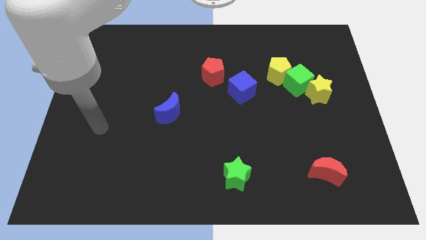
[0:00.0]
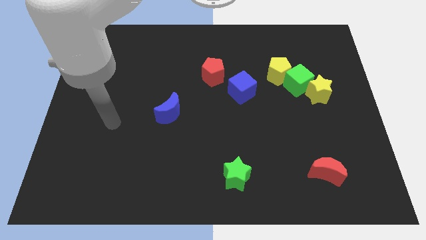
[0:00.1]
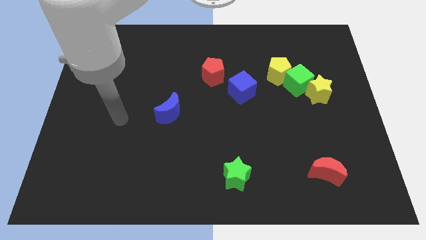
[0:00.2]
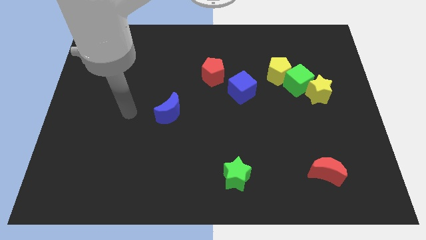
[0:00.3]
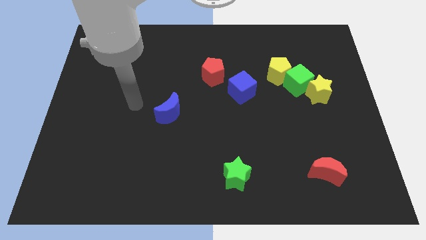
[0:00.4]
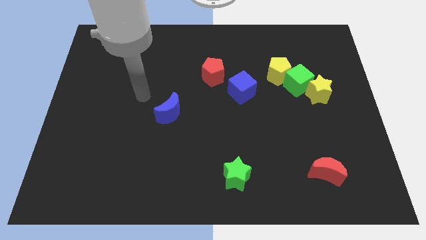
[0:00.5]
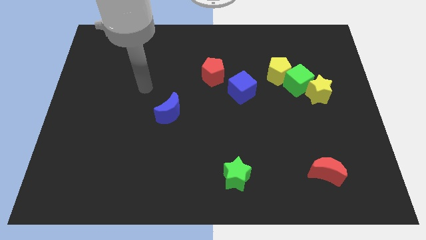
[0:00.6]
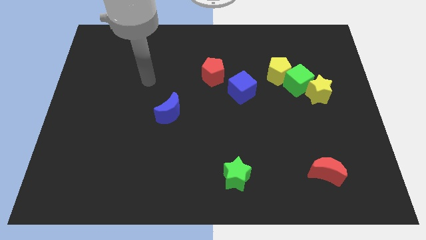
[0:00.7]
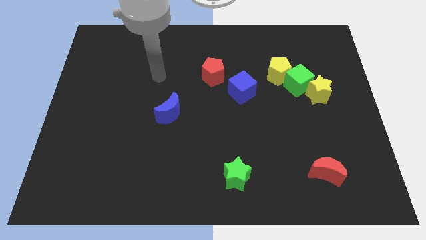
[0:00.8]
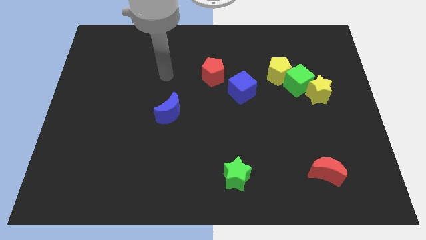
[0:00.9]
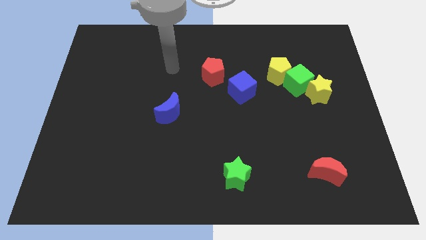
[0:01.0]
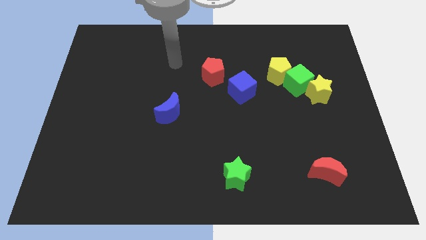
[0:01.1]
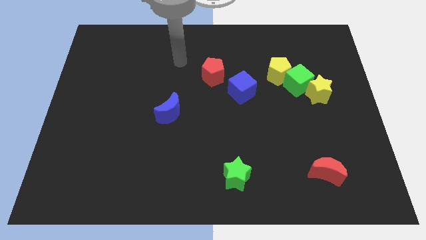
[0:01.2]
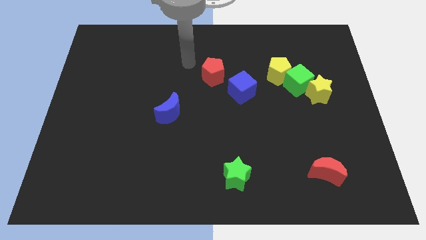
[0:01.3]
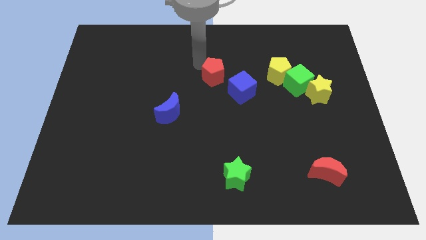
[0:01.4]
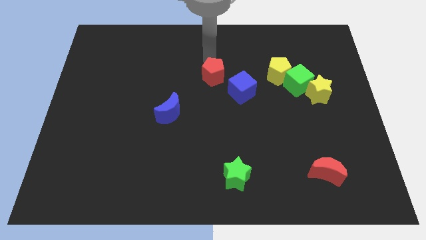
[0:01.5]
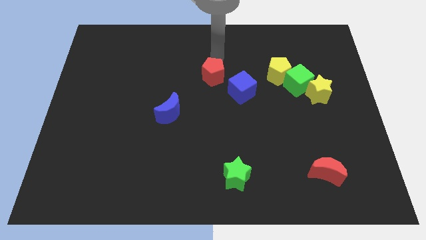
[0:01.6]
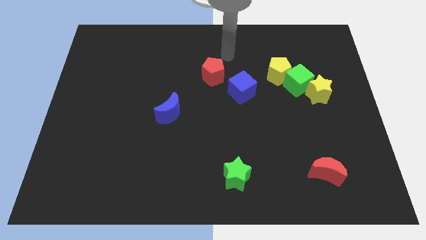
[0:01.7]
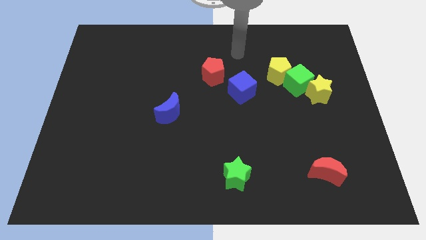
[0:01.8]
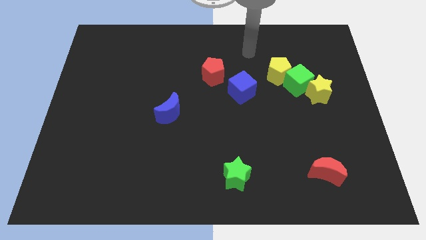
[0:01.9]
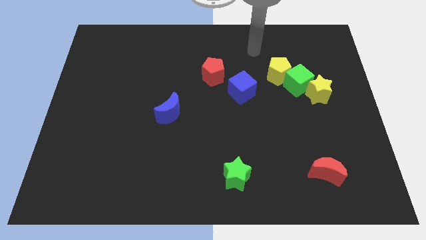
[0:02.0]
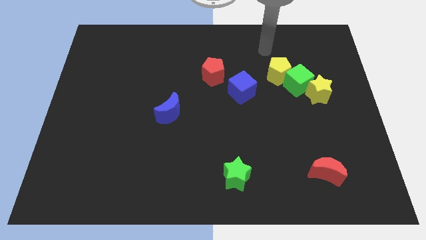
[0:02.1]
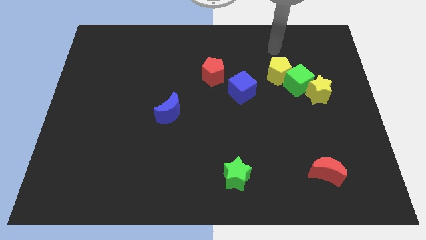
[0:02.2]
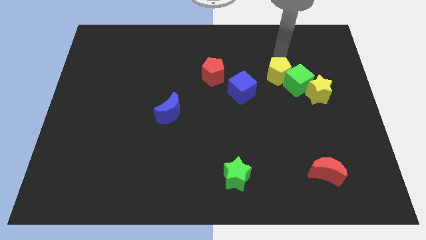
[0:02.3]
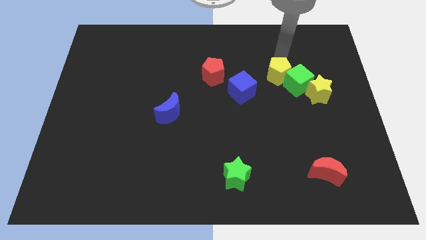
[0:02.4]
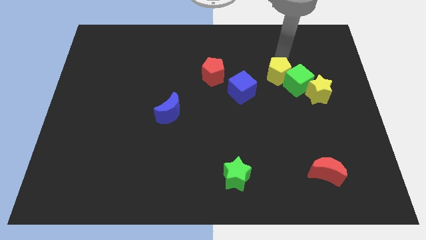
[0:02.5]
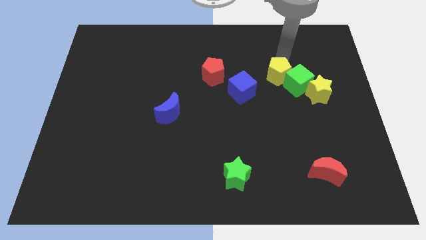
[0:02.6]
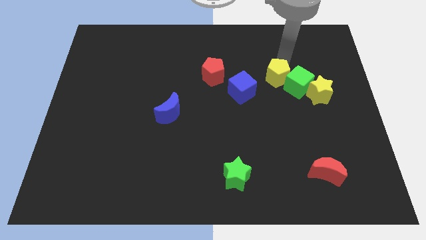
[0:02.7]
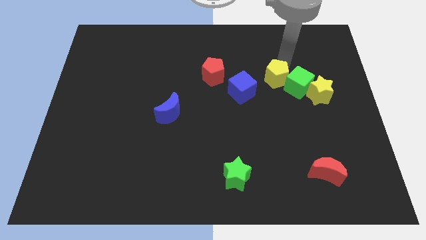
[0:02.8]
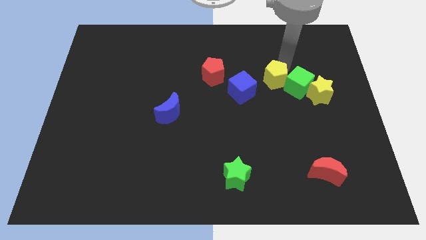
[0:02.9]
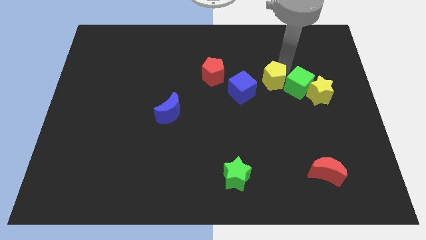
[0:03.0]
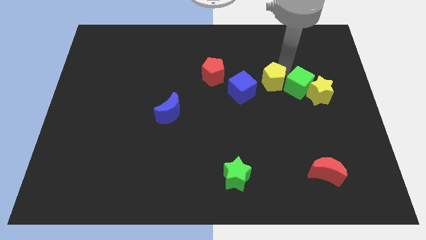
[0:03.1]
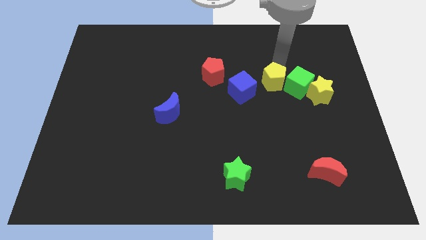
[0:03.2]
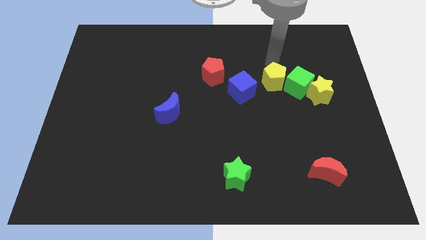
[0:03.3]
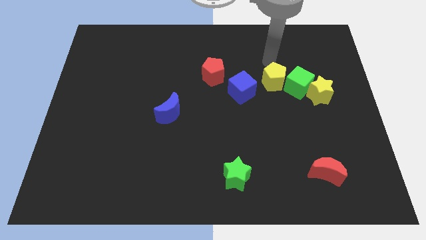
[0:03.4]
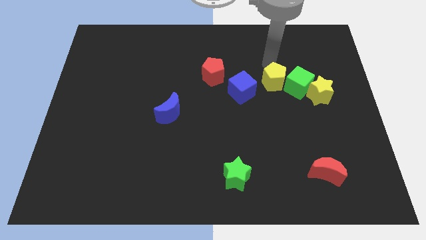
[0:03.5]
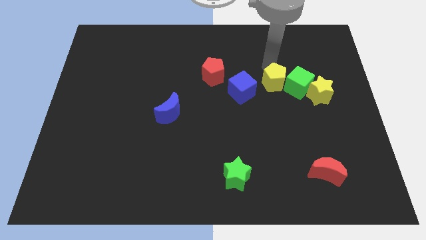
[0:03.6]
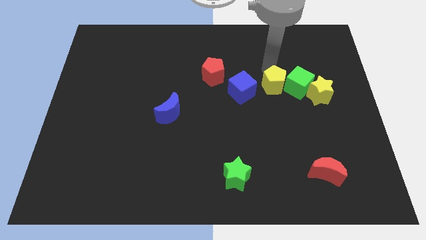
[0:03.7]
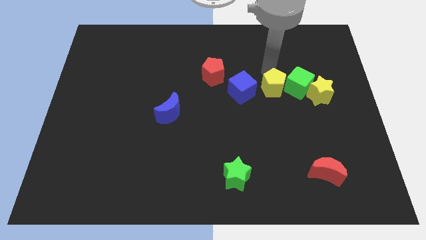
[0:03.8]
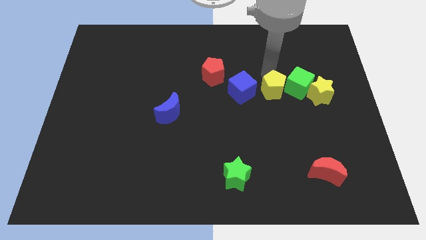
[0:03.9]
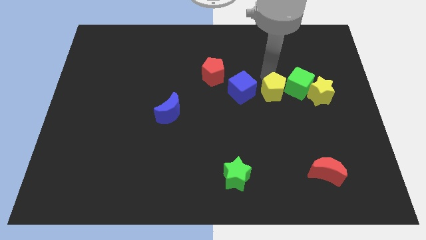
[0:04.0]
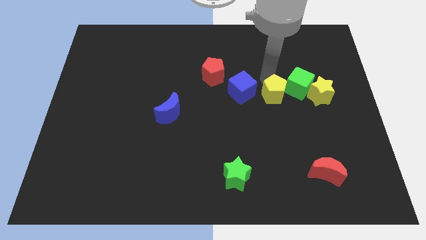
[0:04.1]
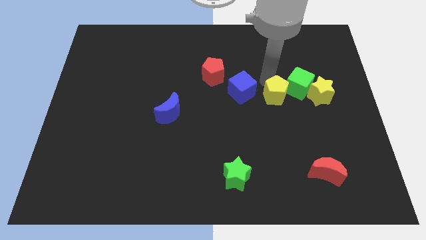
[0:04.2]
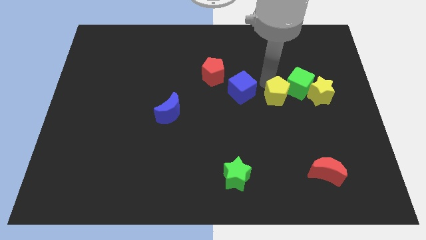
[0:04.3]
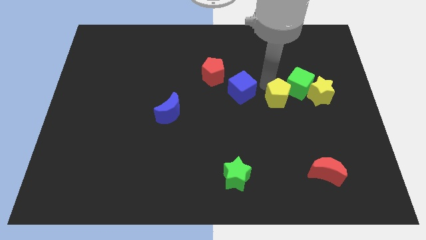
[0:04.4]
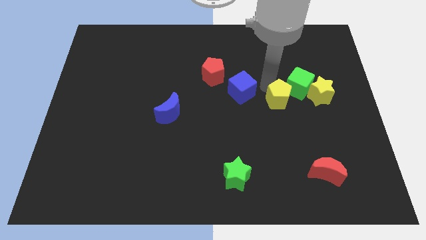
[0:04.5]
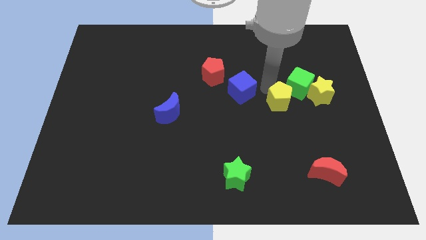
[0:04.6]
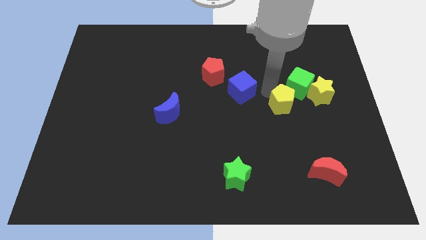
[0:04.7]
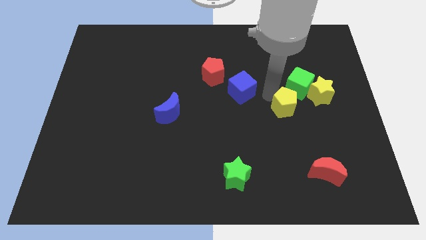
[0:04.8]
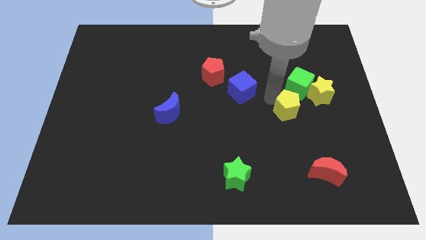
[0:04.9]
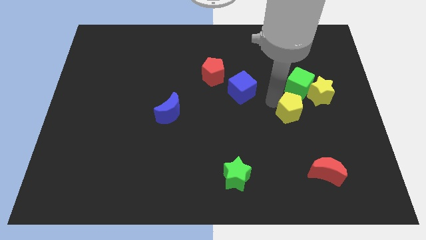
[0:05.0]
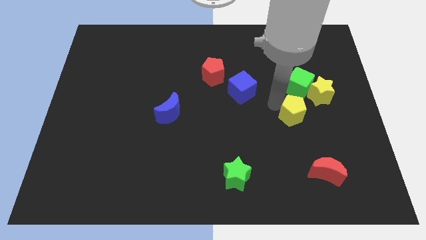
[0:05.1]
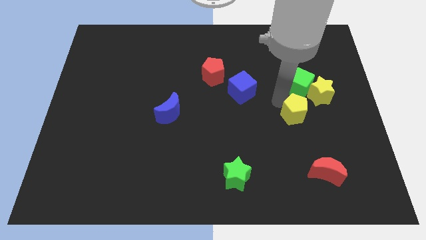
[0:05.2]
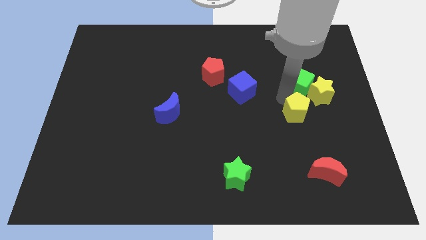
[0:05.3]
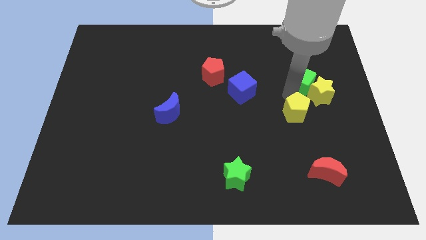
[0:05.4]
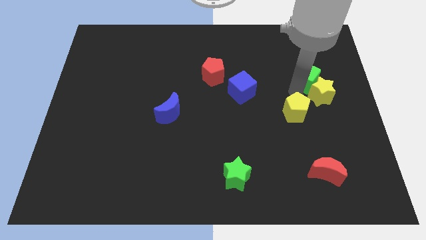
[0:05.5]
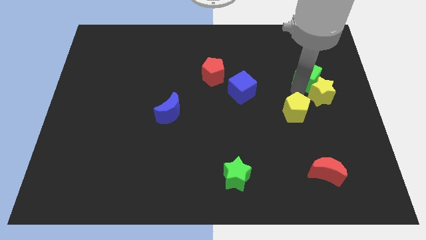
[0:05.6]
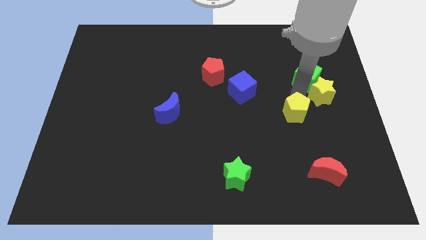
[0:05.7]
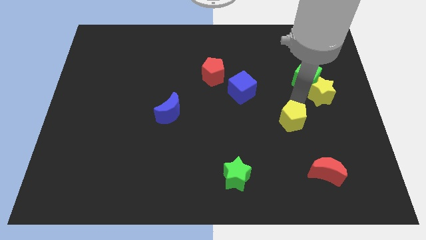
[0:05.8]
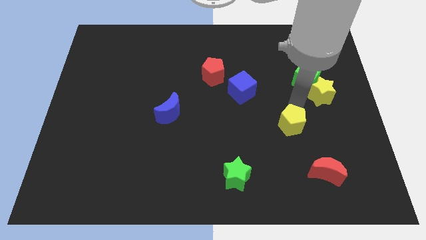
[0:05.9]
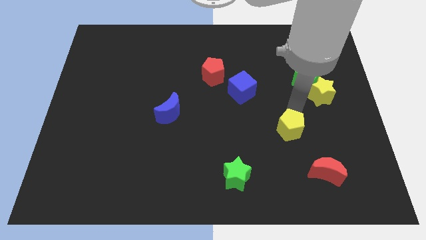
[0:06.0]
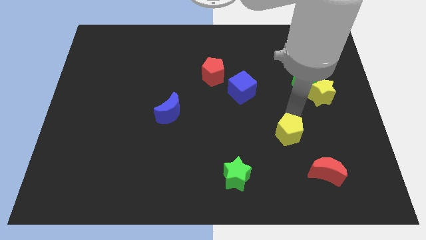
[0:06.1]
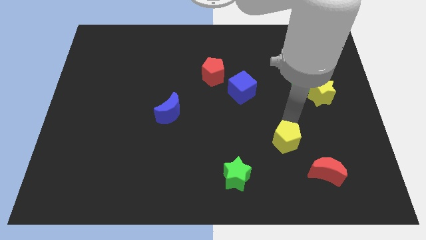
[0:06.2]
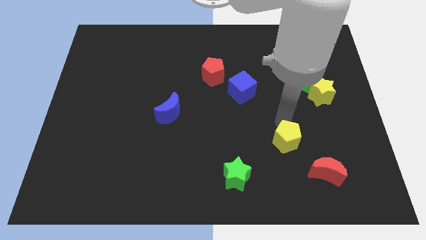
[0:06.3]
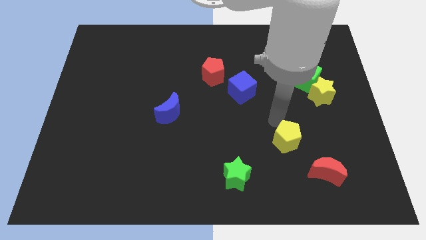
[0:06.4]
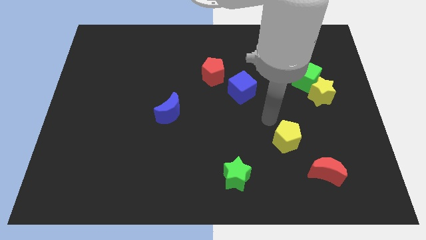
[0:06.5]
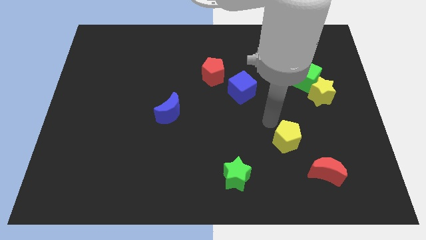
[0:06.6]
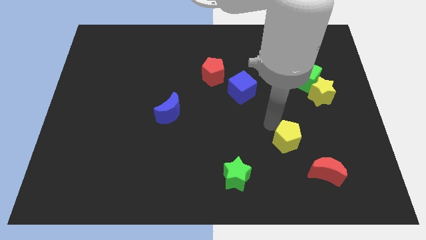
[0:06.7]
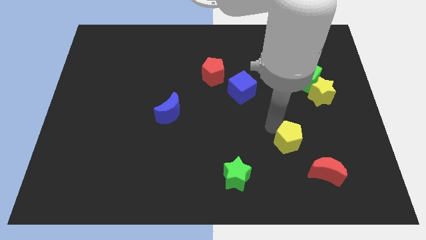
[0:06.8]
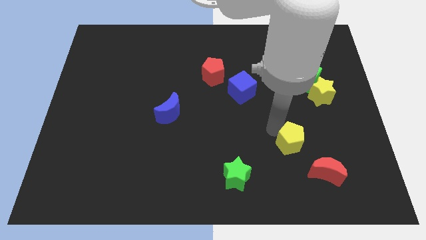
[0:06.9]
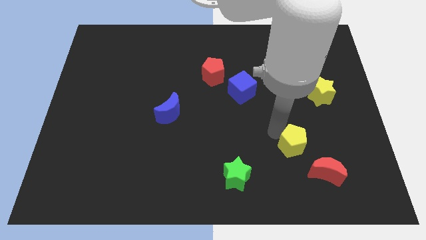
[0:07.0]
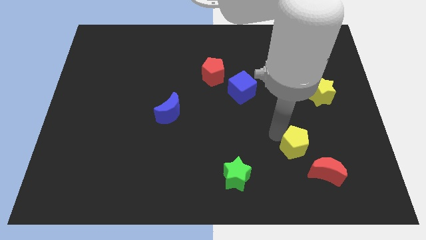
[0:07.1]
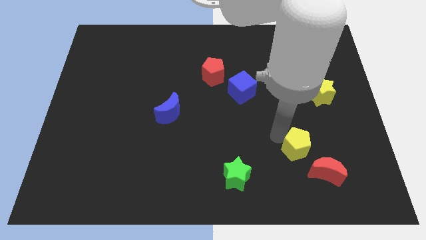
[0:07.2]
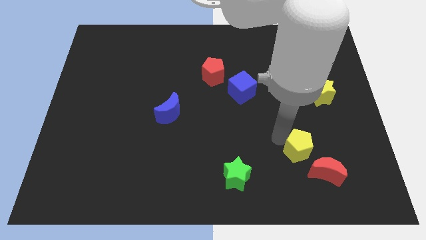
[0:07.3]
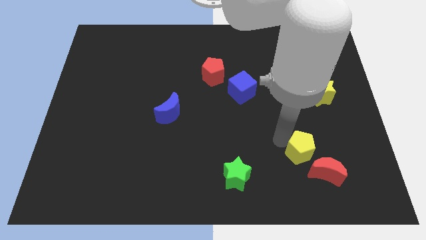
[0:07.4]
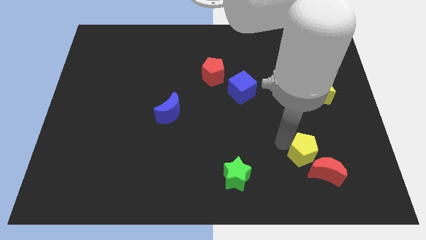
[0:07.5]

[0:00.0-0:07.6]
push the yellow pentagon close to the red moon
